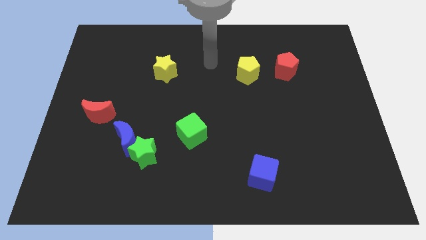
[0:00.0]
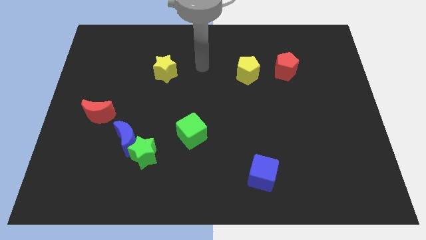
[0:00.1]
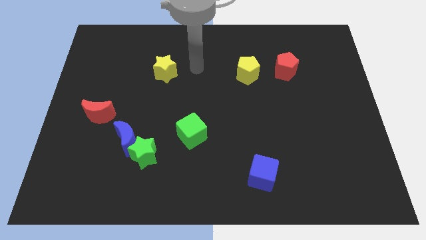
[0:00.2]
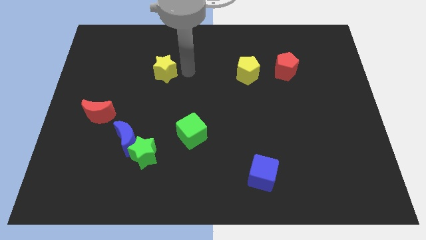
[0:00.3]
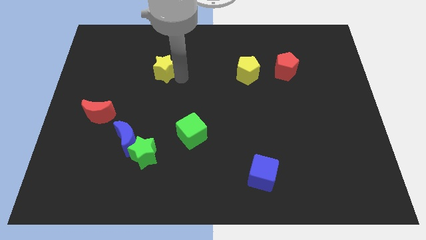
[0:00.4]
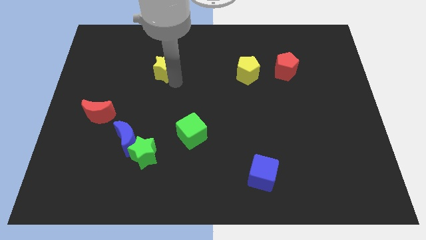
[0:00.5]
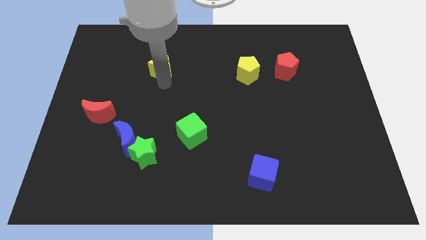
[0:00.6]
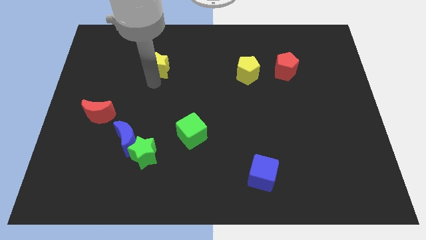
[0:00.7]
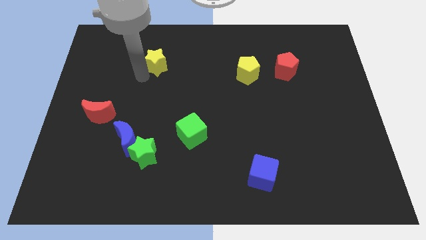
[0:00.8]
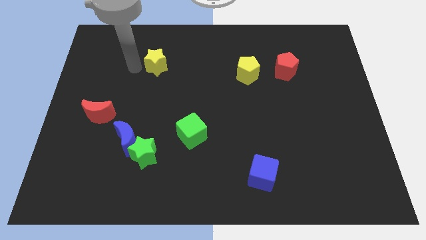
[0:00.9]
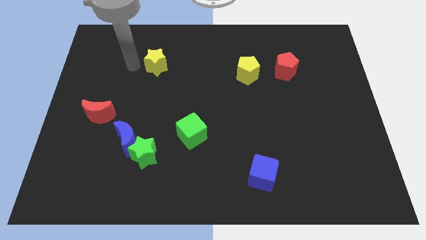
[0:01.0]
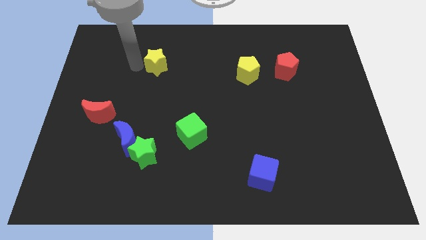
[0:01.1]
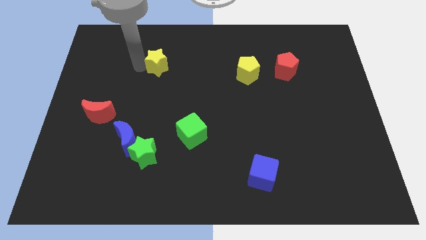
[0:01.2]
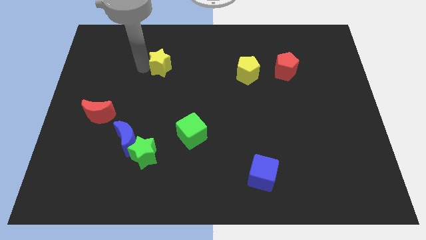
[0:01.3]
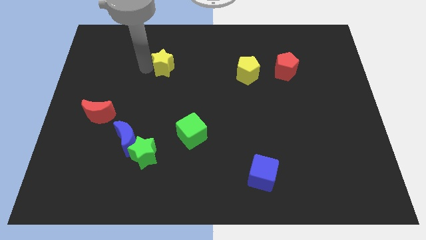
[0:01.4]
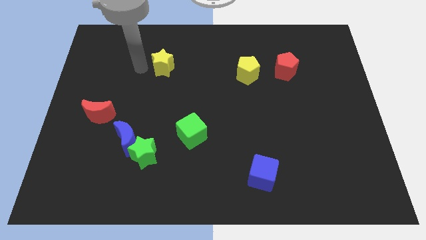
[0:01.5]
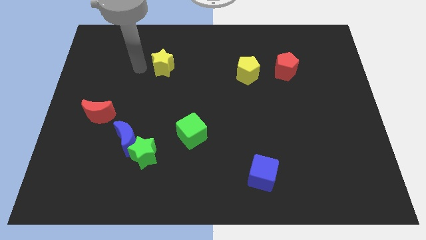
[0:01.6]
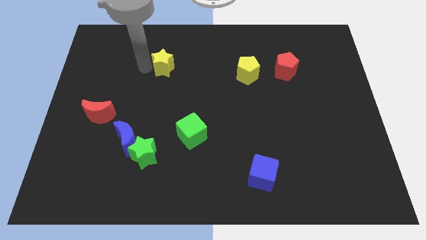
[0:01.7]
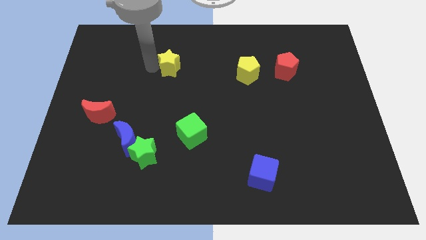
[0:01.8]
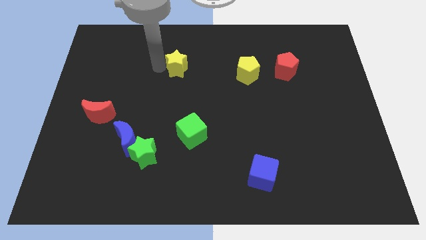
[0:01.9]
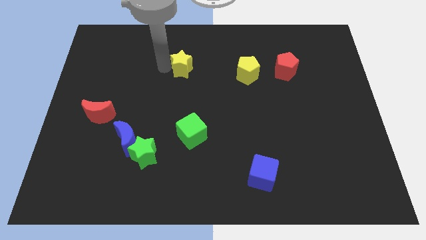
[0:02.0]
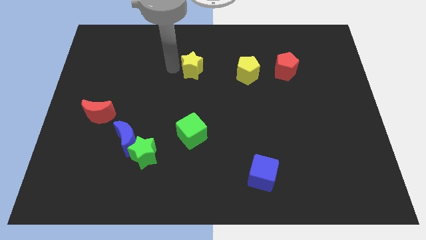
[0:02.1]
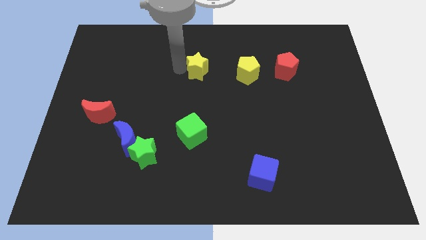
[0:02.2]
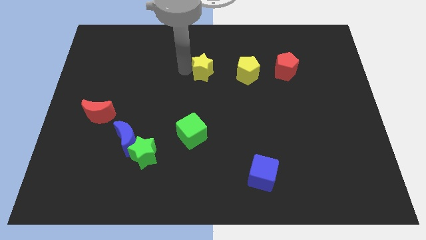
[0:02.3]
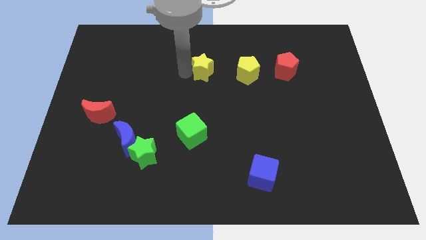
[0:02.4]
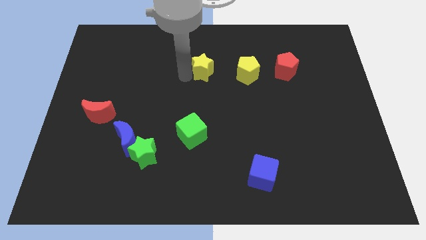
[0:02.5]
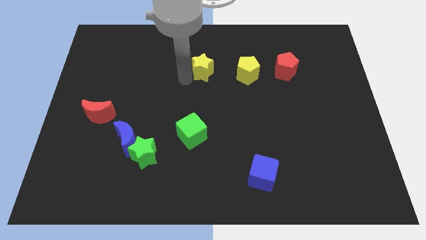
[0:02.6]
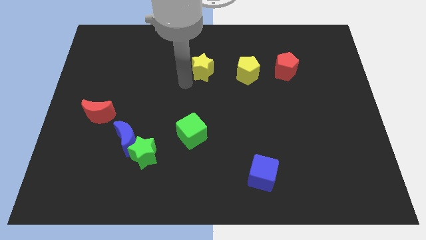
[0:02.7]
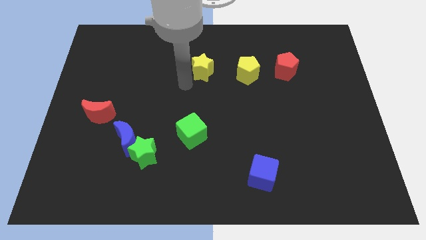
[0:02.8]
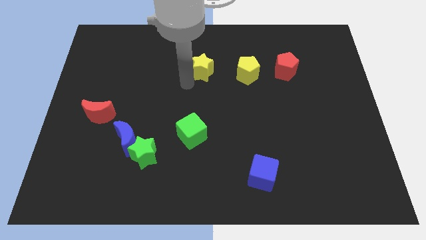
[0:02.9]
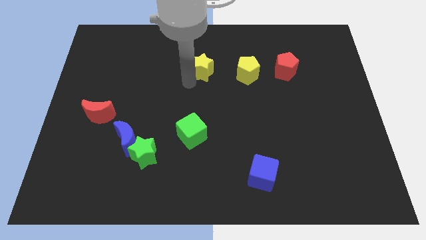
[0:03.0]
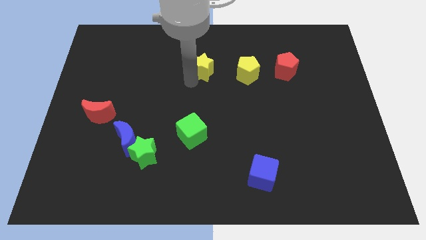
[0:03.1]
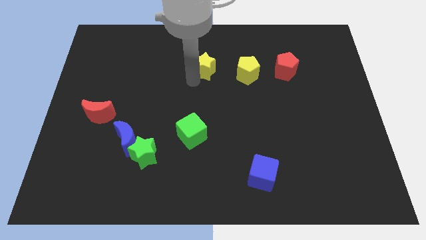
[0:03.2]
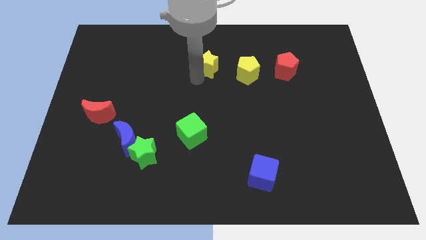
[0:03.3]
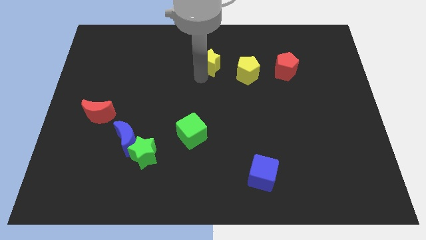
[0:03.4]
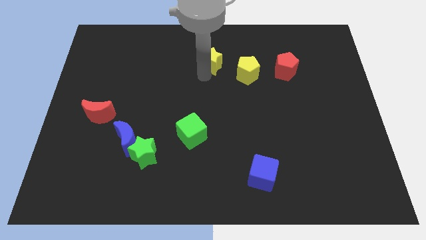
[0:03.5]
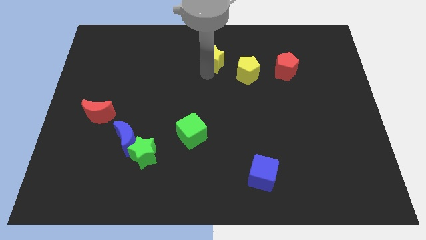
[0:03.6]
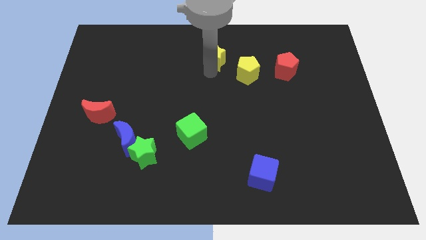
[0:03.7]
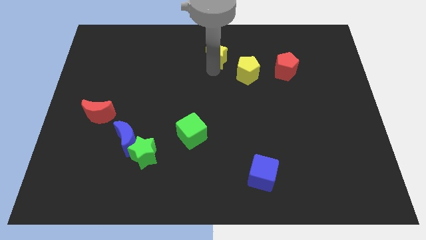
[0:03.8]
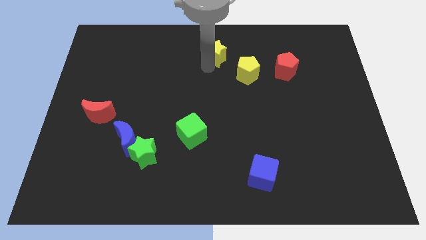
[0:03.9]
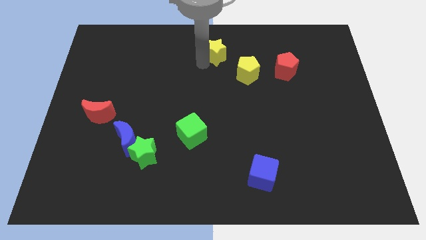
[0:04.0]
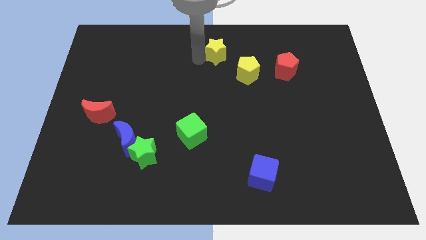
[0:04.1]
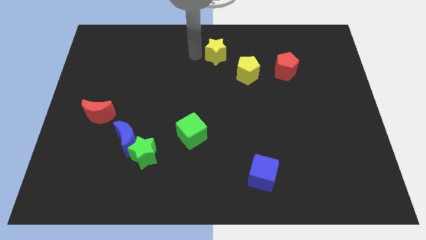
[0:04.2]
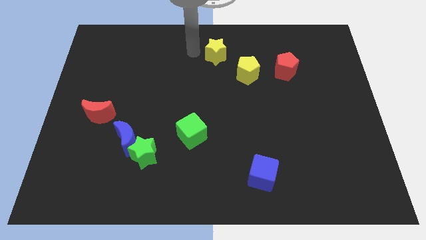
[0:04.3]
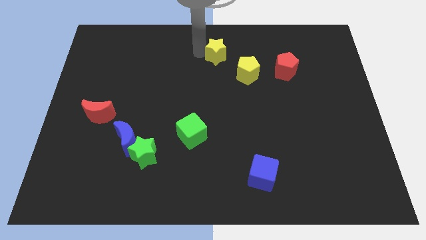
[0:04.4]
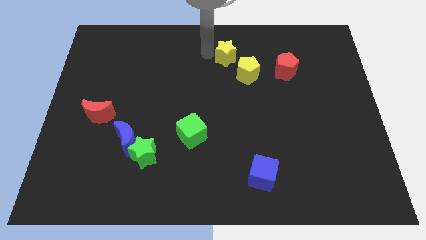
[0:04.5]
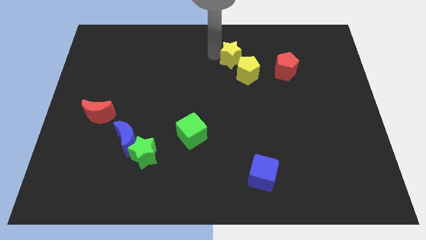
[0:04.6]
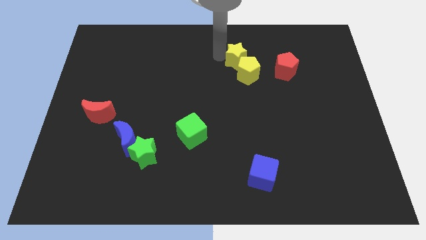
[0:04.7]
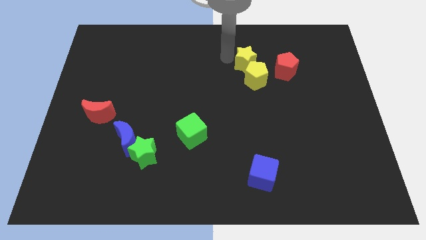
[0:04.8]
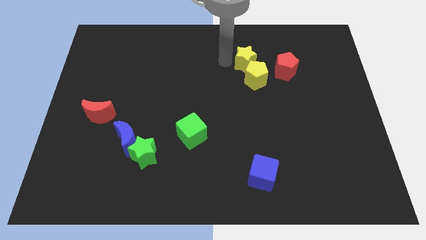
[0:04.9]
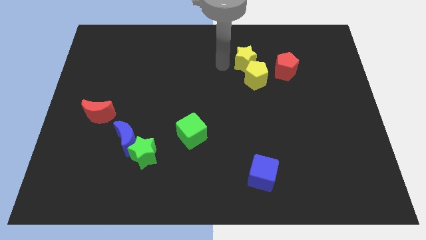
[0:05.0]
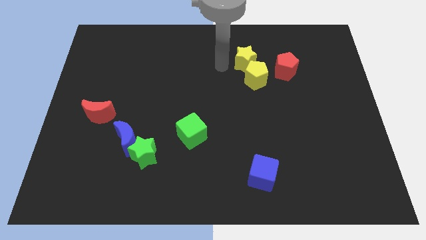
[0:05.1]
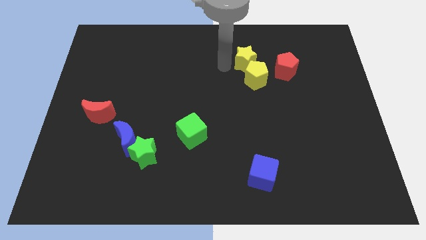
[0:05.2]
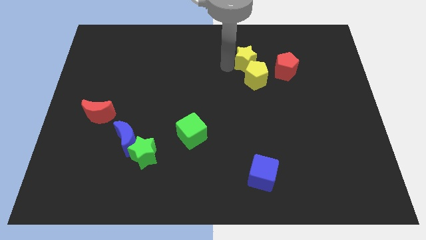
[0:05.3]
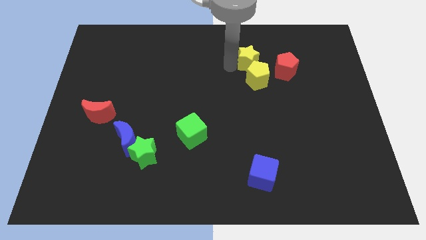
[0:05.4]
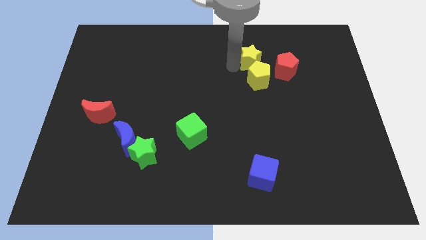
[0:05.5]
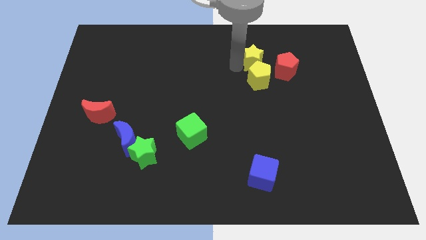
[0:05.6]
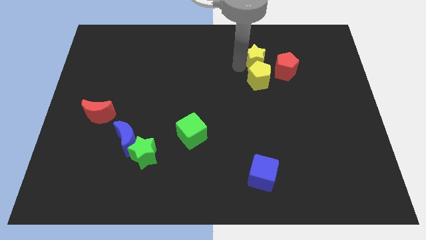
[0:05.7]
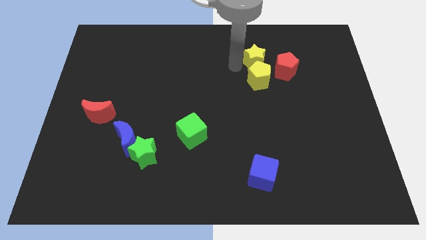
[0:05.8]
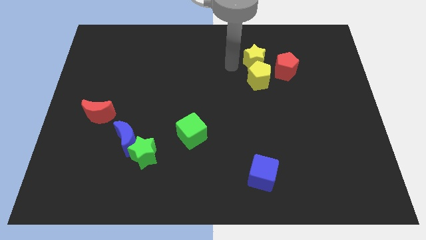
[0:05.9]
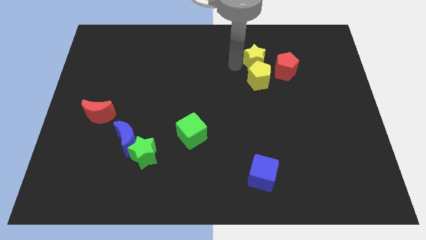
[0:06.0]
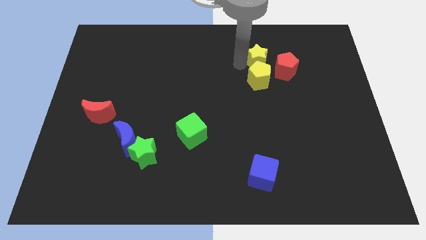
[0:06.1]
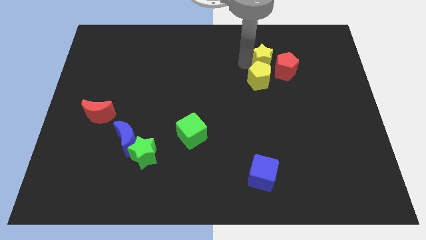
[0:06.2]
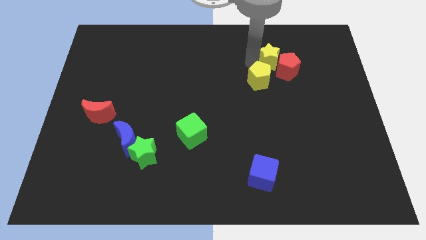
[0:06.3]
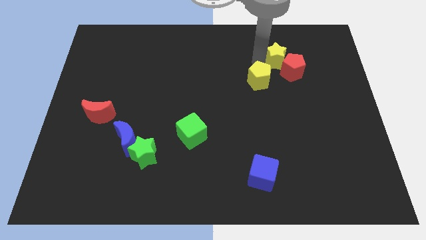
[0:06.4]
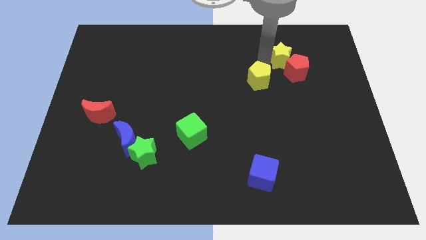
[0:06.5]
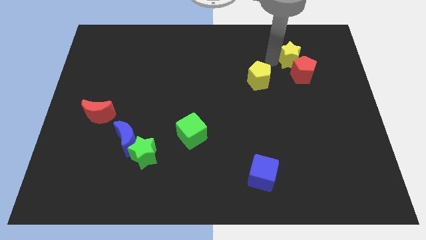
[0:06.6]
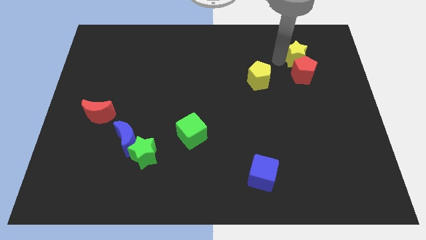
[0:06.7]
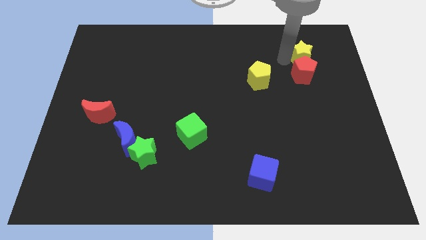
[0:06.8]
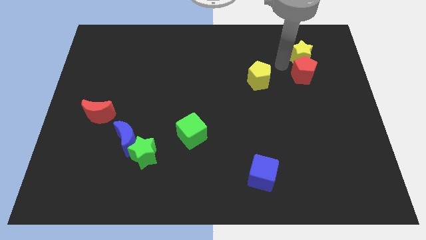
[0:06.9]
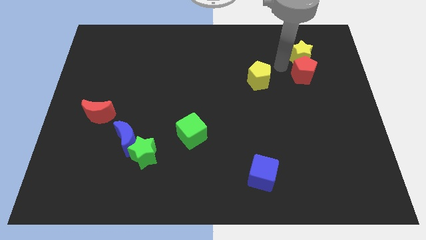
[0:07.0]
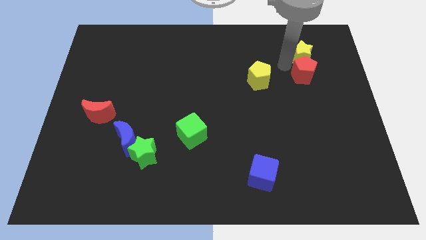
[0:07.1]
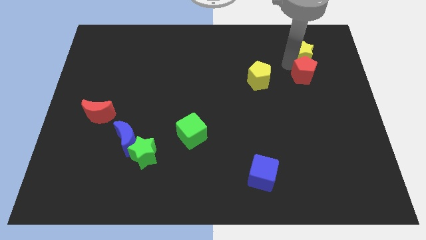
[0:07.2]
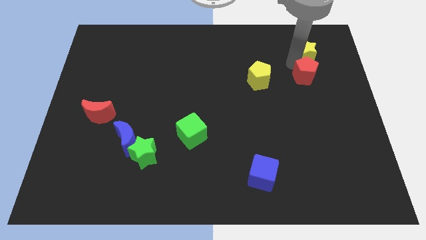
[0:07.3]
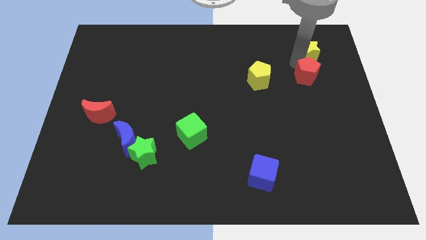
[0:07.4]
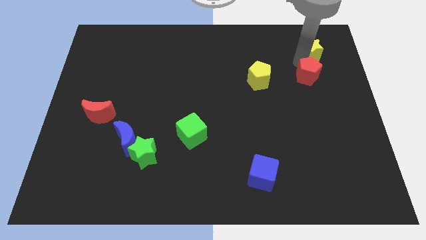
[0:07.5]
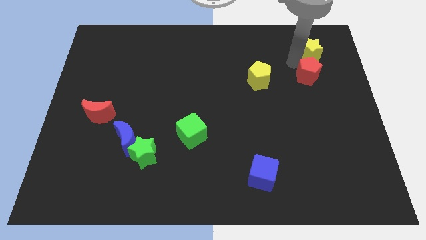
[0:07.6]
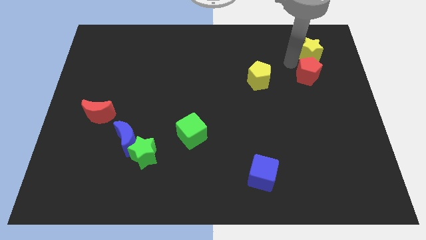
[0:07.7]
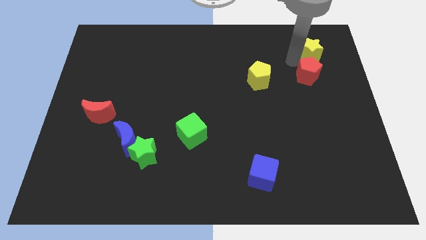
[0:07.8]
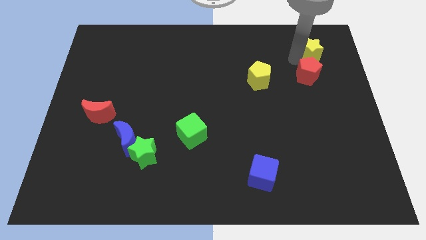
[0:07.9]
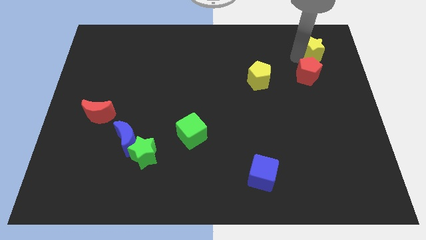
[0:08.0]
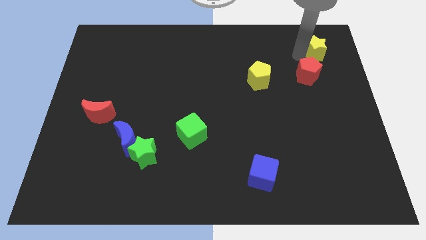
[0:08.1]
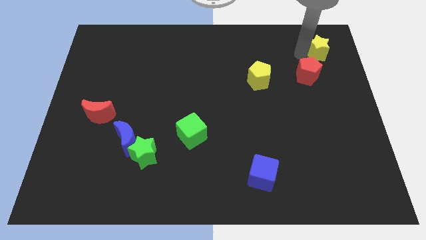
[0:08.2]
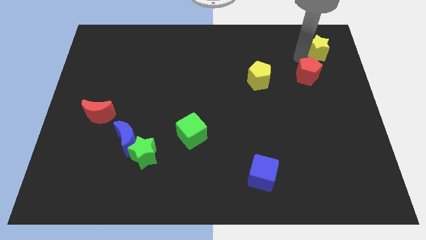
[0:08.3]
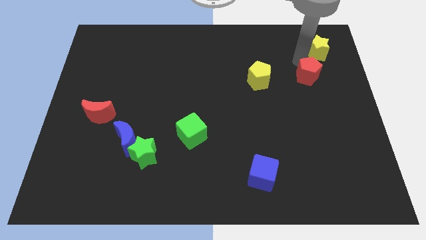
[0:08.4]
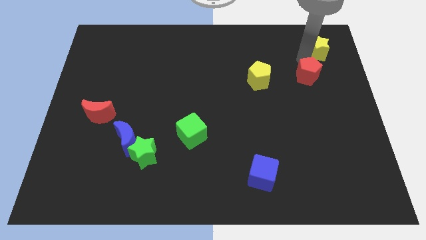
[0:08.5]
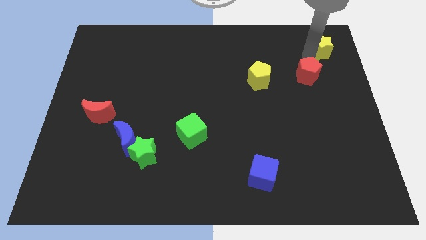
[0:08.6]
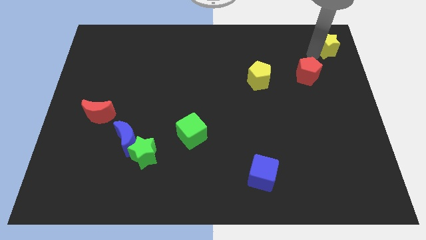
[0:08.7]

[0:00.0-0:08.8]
slide the yellow star to the top right of the board
